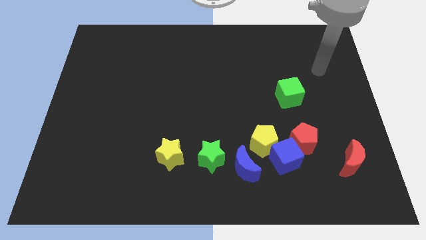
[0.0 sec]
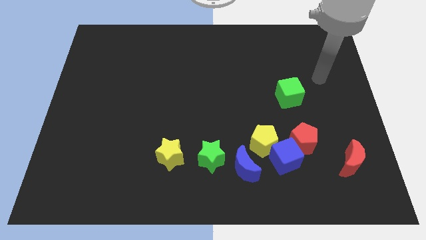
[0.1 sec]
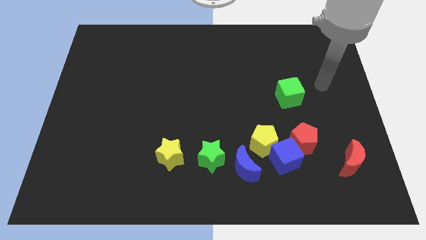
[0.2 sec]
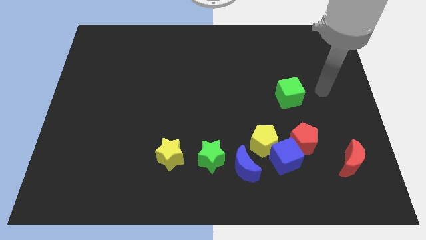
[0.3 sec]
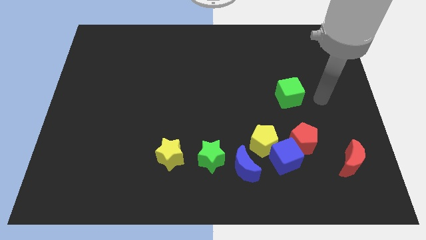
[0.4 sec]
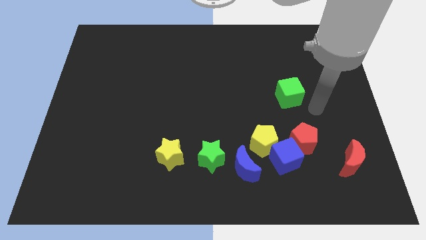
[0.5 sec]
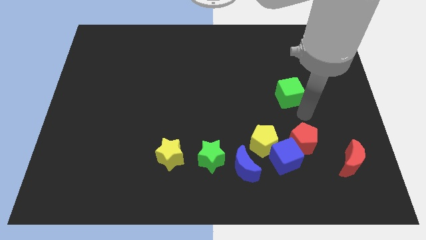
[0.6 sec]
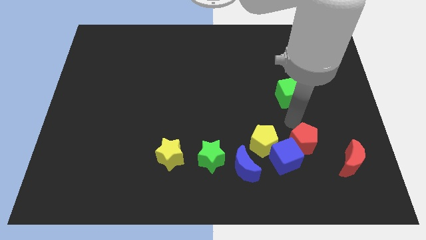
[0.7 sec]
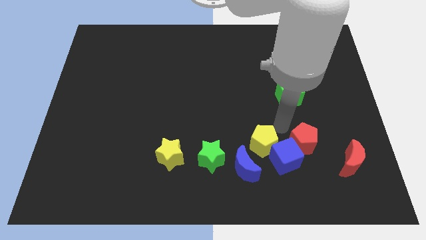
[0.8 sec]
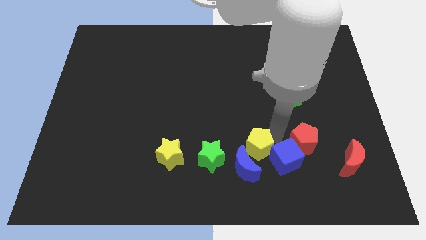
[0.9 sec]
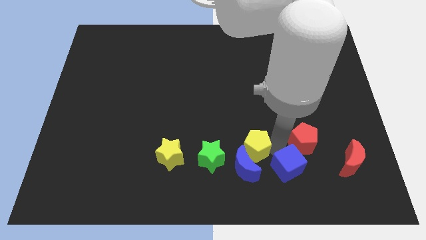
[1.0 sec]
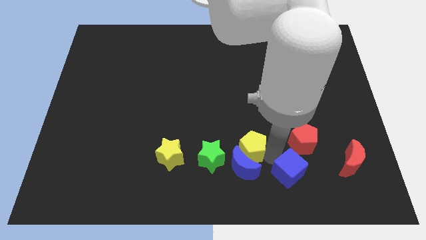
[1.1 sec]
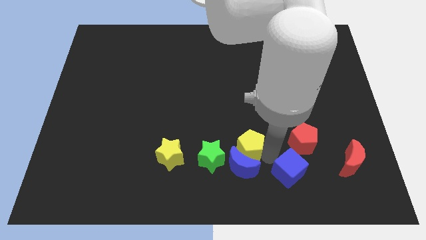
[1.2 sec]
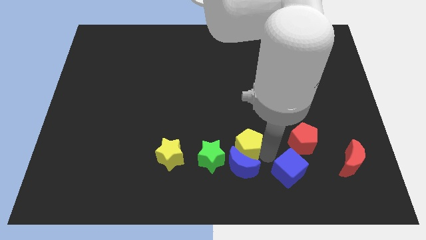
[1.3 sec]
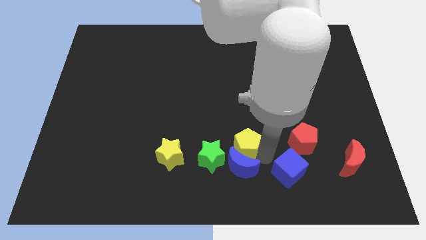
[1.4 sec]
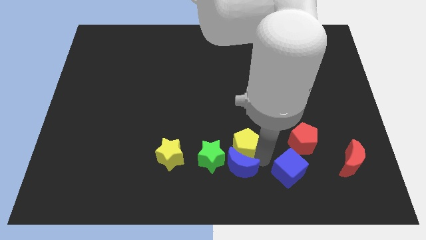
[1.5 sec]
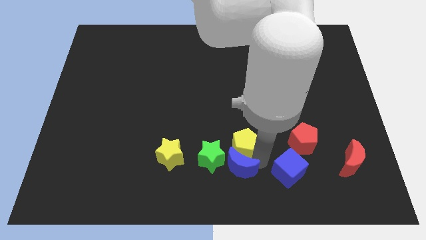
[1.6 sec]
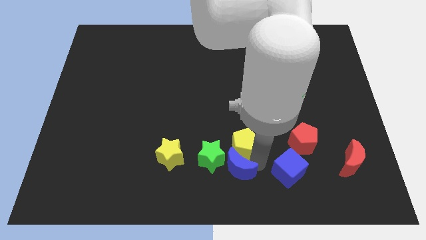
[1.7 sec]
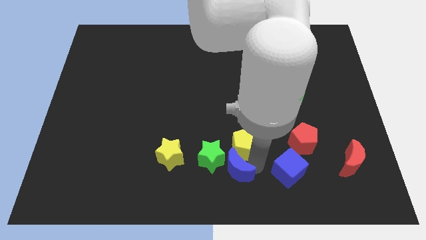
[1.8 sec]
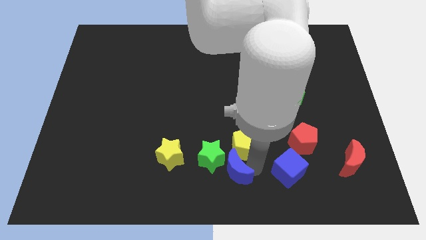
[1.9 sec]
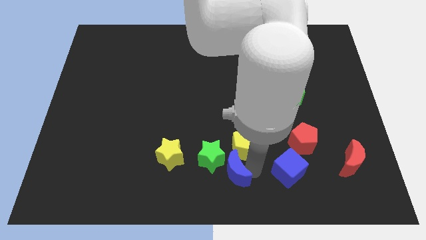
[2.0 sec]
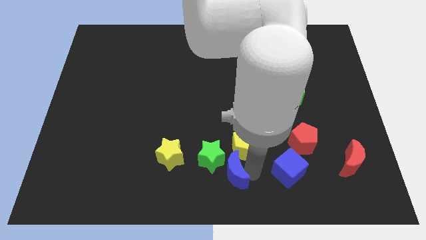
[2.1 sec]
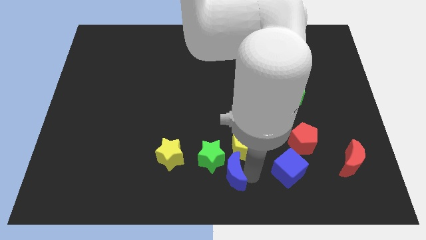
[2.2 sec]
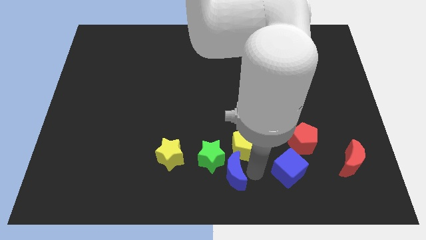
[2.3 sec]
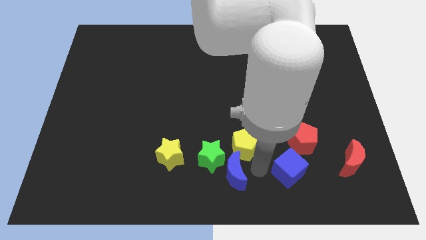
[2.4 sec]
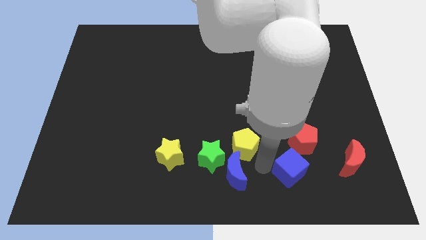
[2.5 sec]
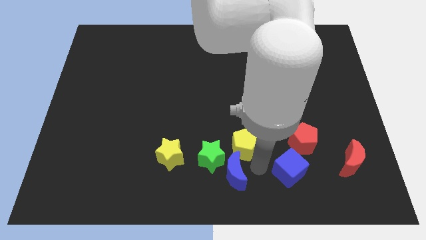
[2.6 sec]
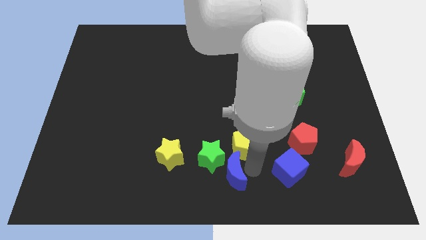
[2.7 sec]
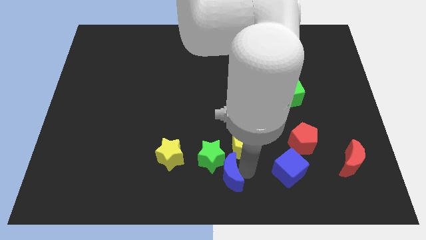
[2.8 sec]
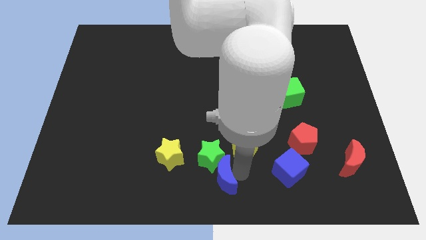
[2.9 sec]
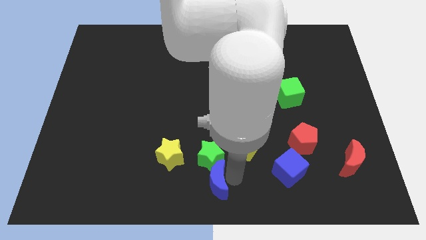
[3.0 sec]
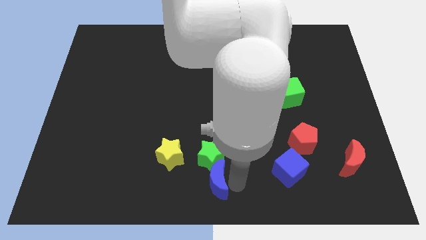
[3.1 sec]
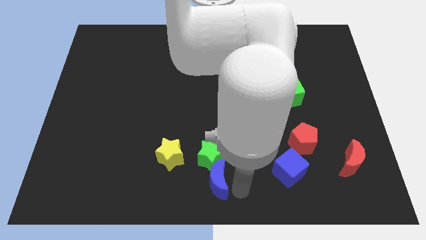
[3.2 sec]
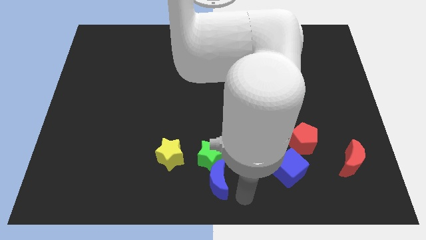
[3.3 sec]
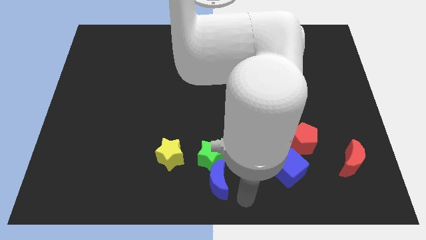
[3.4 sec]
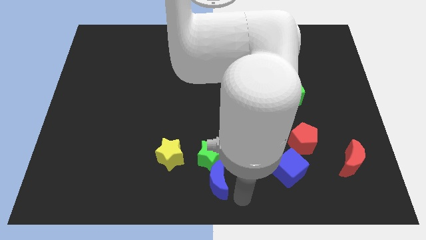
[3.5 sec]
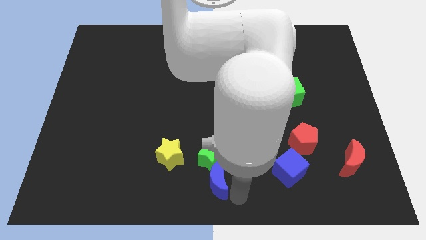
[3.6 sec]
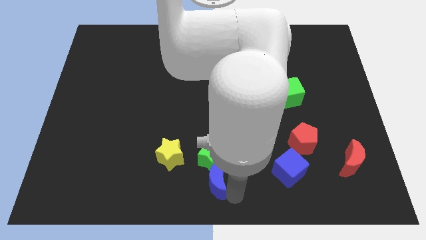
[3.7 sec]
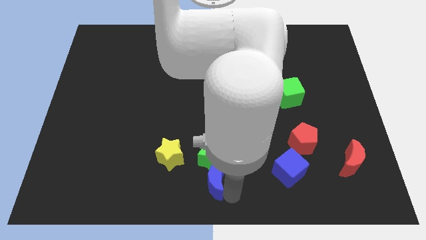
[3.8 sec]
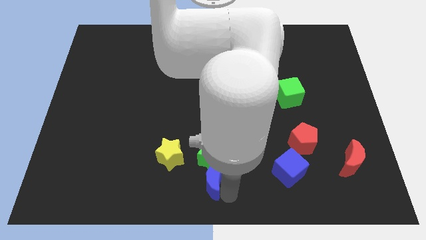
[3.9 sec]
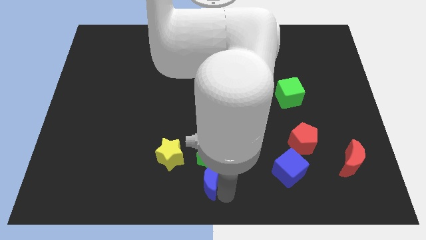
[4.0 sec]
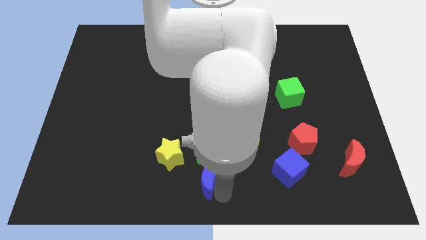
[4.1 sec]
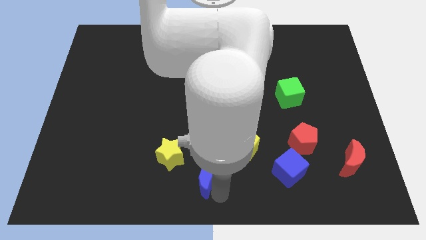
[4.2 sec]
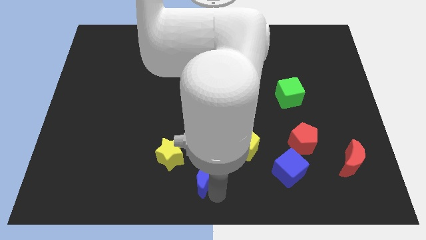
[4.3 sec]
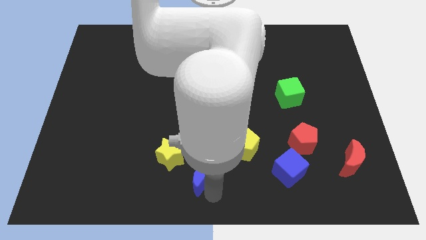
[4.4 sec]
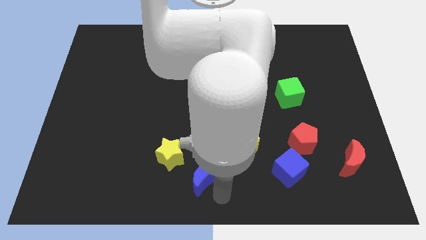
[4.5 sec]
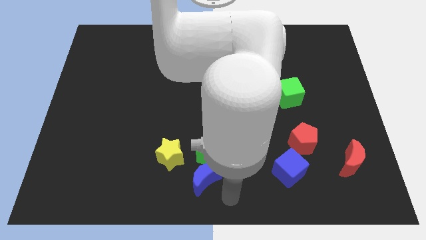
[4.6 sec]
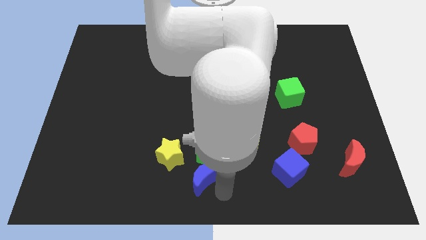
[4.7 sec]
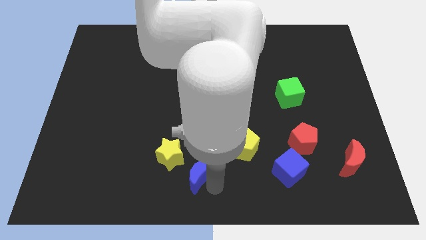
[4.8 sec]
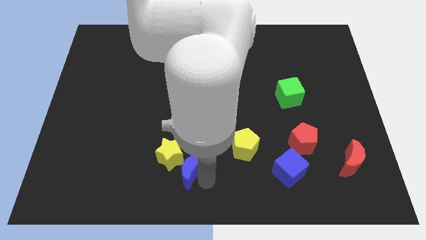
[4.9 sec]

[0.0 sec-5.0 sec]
put the blue moon next to the yellow star

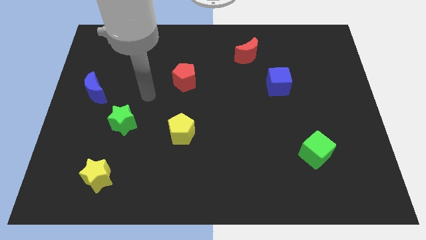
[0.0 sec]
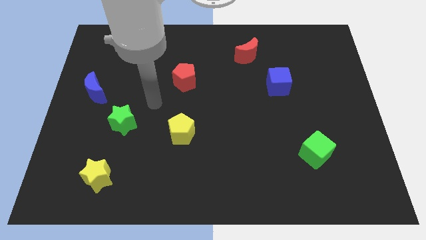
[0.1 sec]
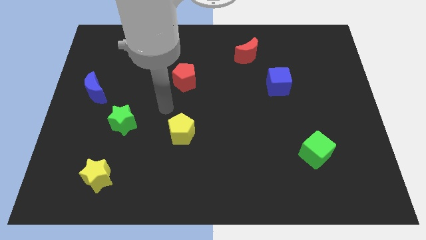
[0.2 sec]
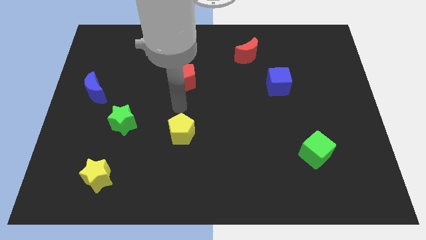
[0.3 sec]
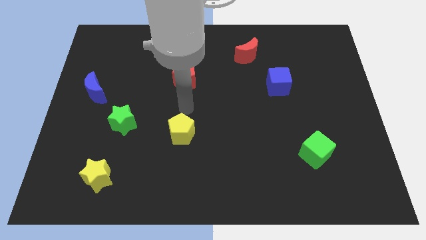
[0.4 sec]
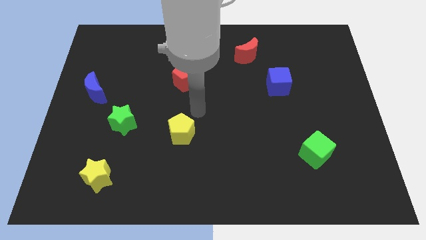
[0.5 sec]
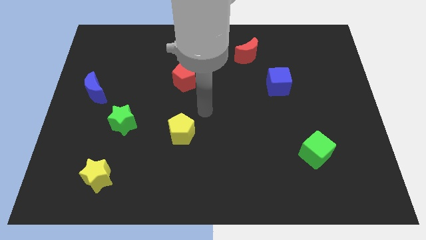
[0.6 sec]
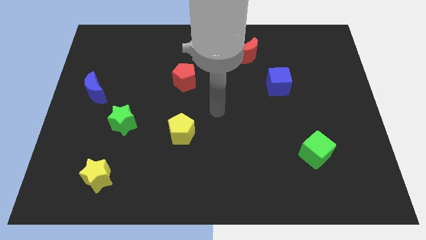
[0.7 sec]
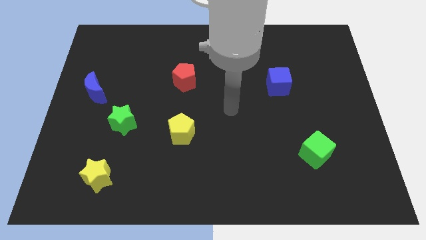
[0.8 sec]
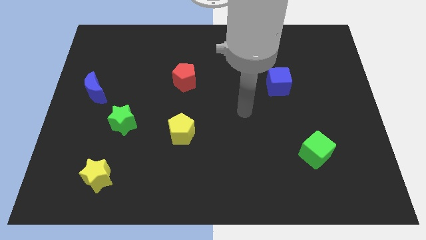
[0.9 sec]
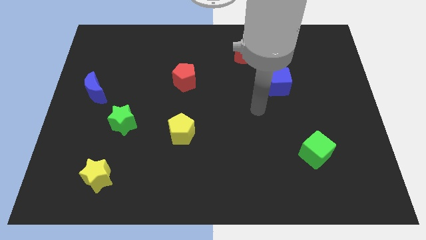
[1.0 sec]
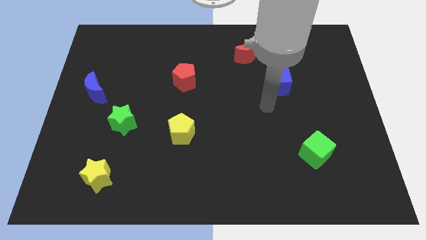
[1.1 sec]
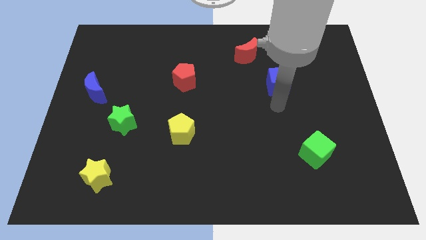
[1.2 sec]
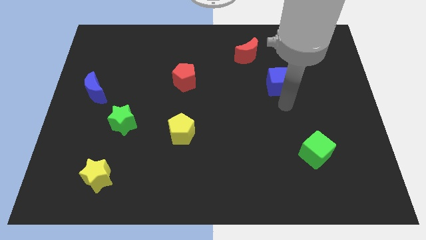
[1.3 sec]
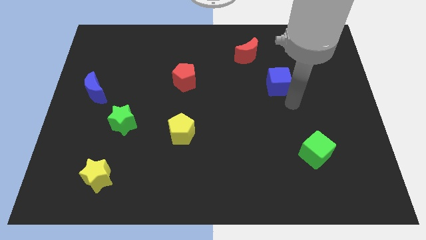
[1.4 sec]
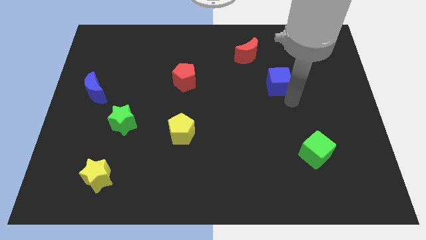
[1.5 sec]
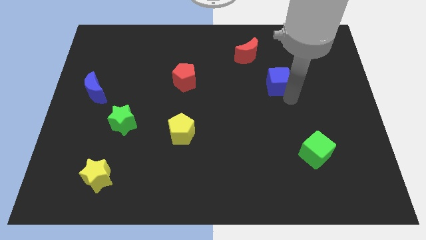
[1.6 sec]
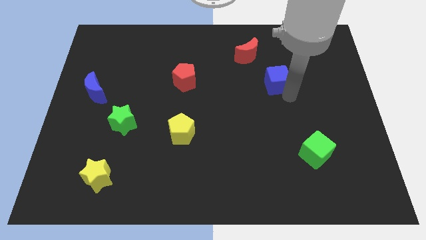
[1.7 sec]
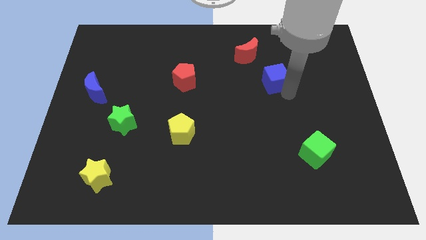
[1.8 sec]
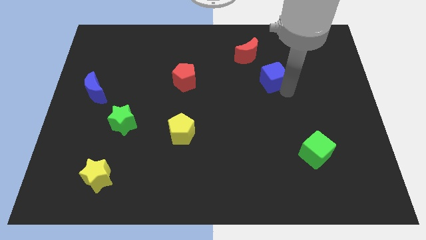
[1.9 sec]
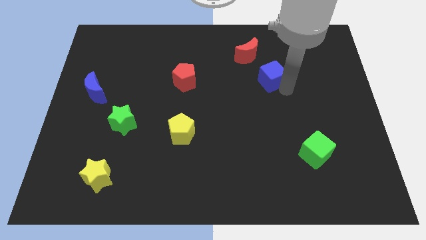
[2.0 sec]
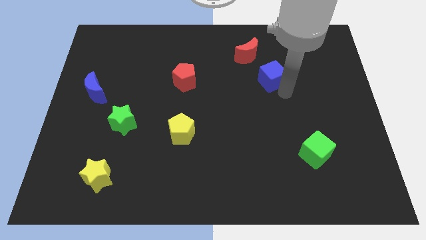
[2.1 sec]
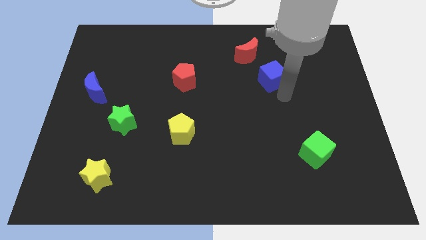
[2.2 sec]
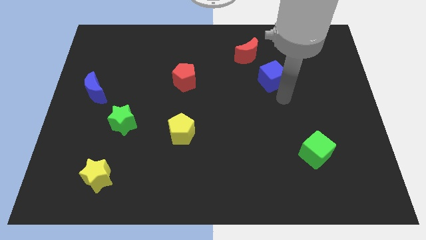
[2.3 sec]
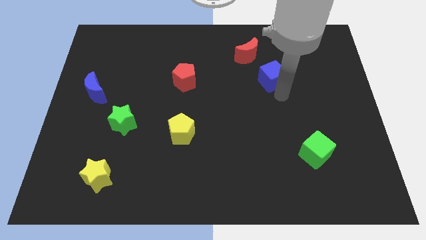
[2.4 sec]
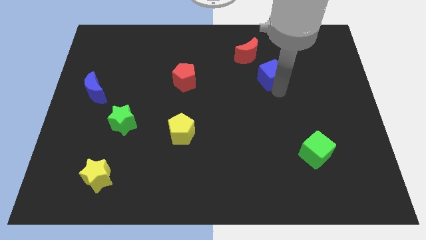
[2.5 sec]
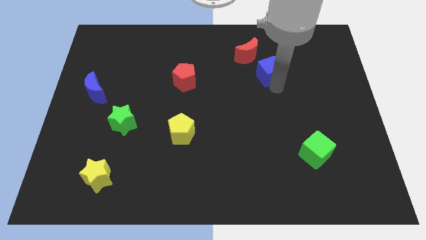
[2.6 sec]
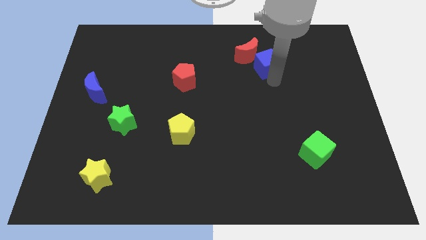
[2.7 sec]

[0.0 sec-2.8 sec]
slide the blue cube to the red moon
